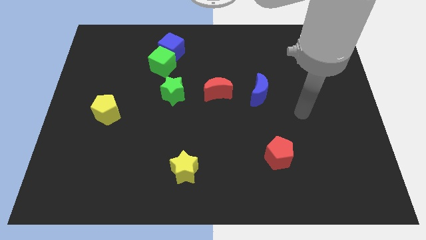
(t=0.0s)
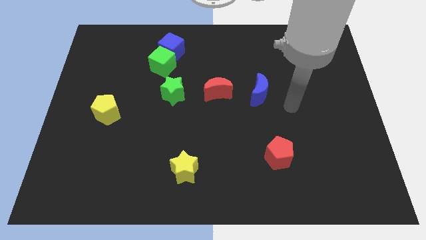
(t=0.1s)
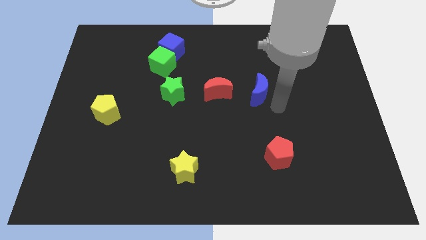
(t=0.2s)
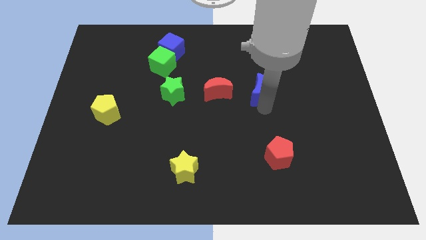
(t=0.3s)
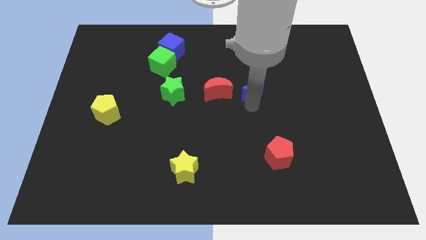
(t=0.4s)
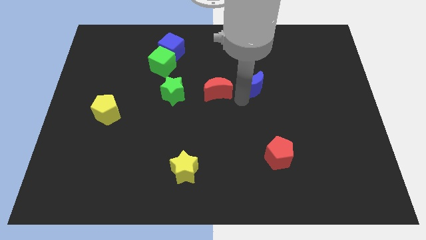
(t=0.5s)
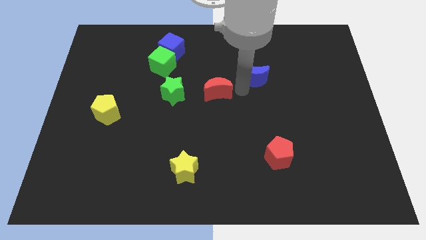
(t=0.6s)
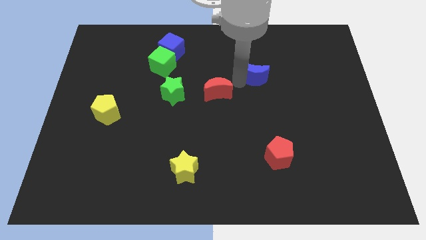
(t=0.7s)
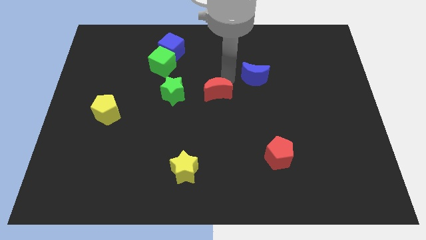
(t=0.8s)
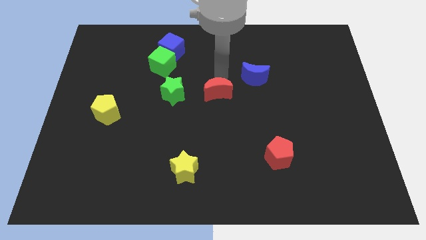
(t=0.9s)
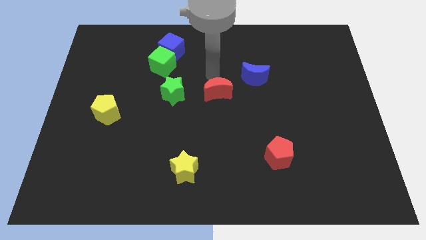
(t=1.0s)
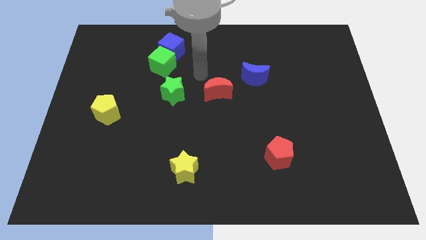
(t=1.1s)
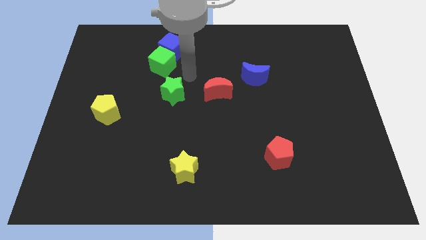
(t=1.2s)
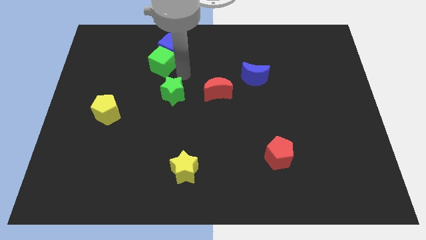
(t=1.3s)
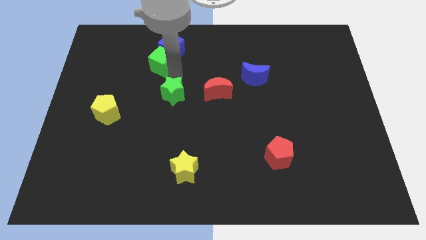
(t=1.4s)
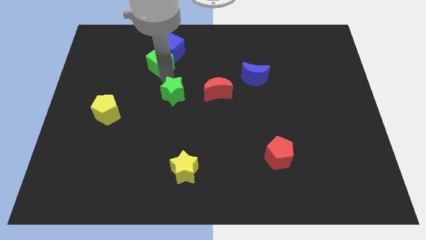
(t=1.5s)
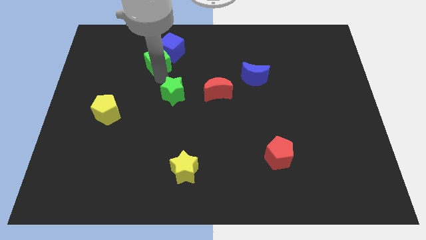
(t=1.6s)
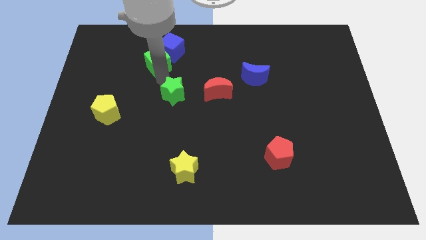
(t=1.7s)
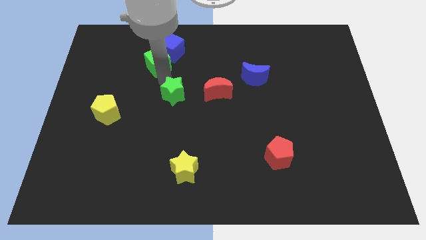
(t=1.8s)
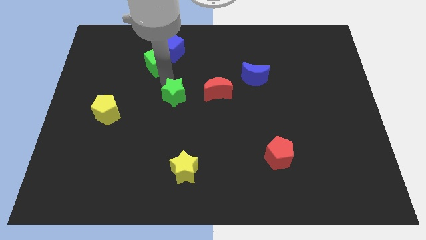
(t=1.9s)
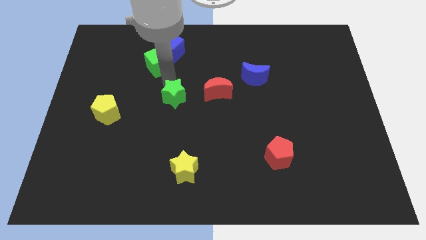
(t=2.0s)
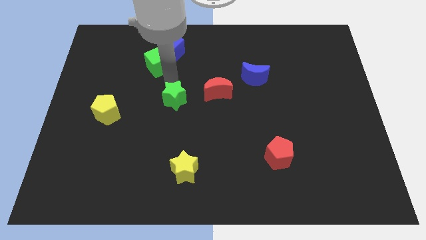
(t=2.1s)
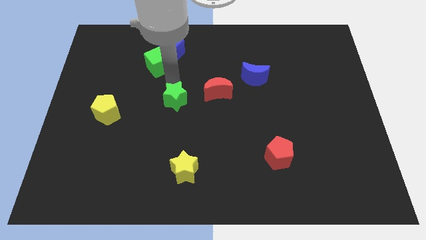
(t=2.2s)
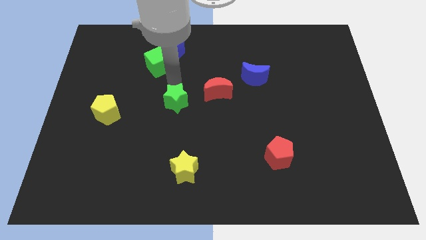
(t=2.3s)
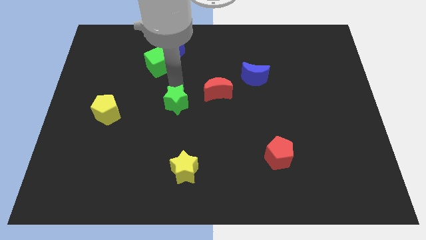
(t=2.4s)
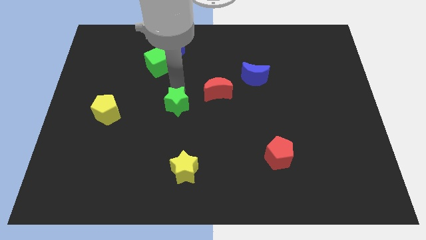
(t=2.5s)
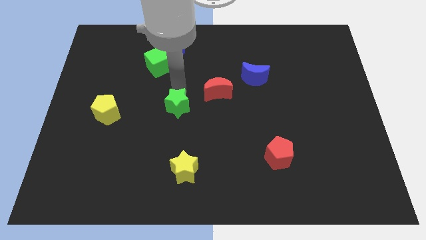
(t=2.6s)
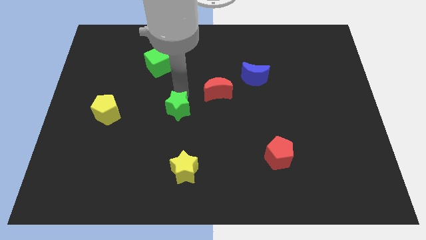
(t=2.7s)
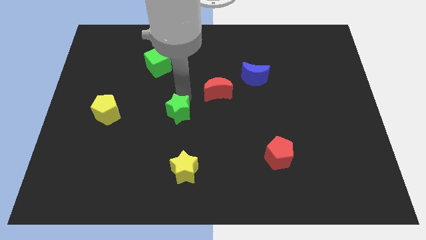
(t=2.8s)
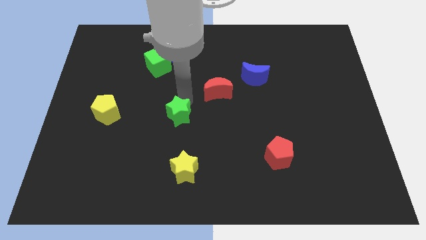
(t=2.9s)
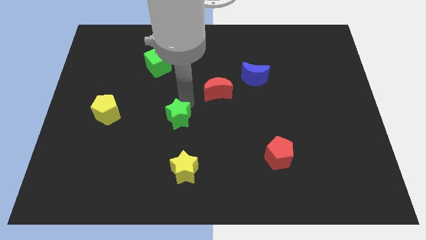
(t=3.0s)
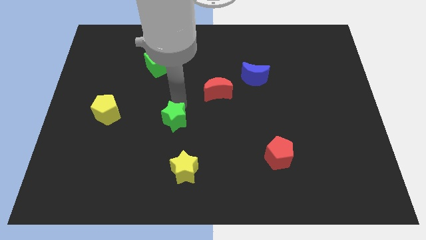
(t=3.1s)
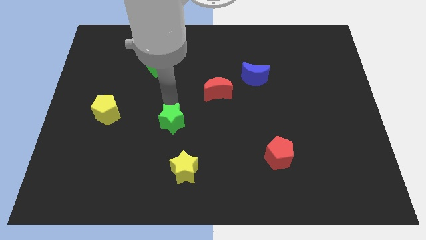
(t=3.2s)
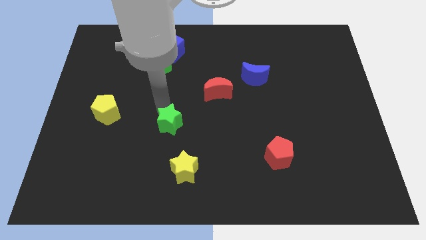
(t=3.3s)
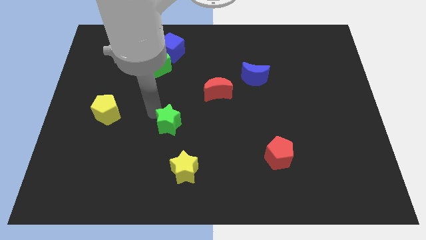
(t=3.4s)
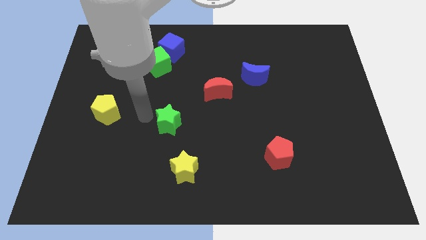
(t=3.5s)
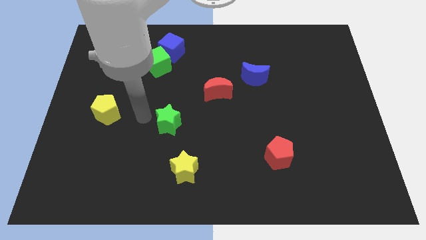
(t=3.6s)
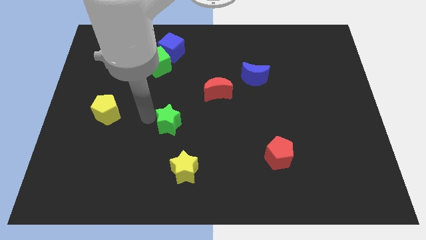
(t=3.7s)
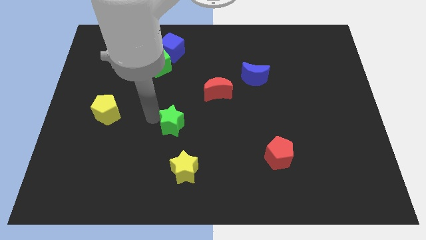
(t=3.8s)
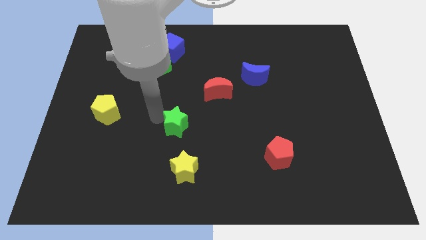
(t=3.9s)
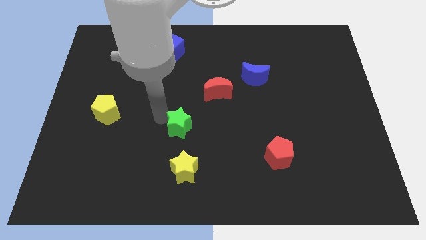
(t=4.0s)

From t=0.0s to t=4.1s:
slightly slide the green star downwards and right

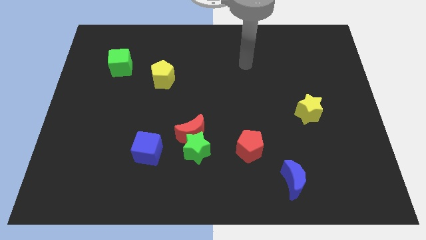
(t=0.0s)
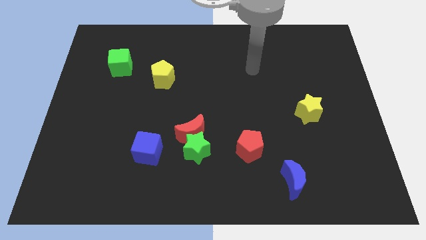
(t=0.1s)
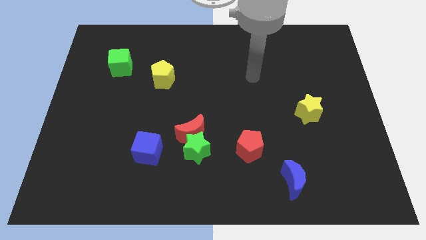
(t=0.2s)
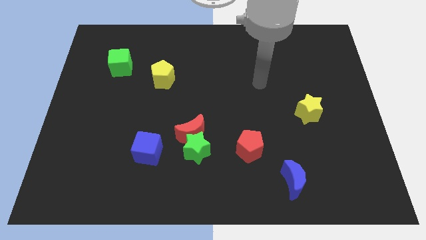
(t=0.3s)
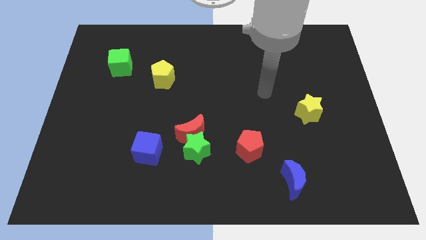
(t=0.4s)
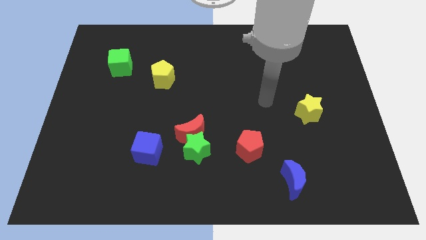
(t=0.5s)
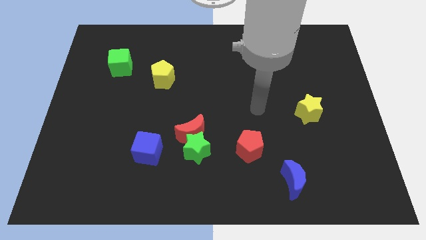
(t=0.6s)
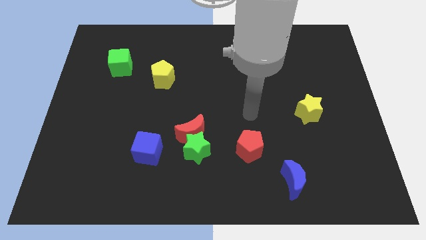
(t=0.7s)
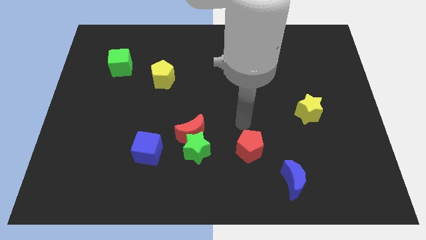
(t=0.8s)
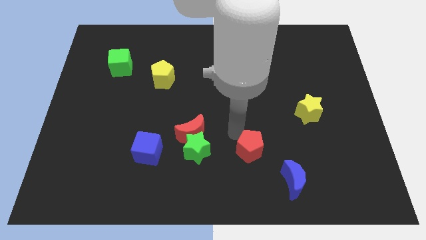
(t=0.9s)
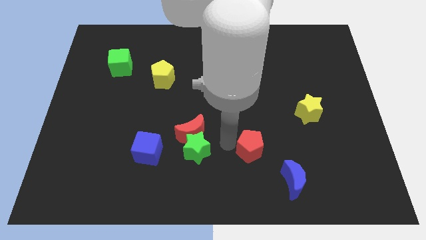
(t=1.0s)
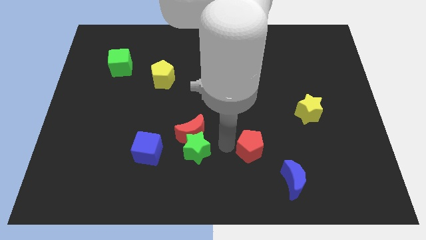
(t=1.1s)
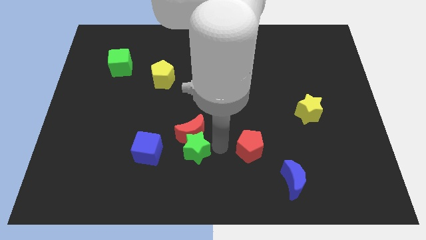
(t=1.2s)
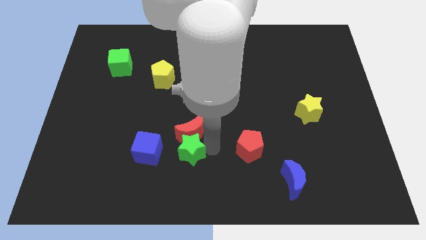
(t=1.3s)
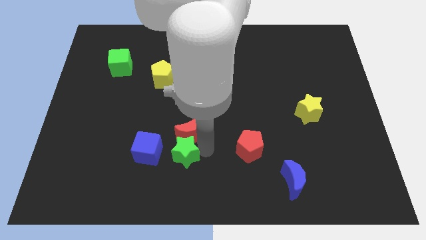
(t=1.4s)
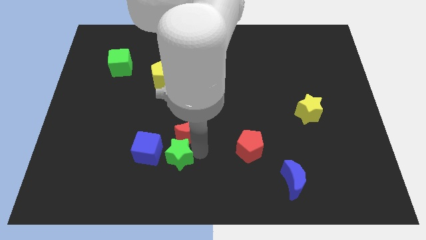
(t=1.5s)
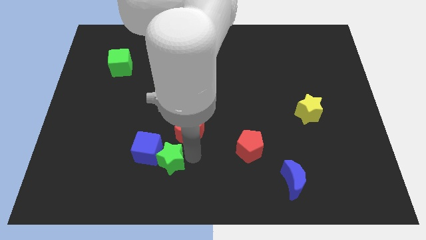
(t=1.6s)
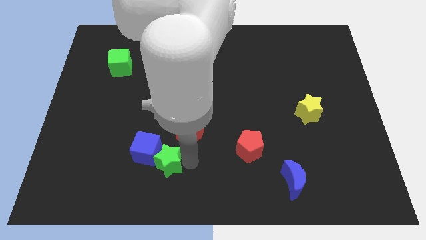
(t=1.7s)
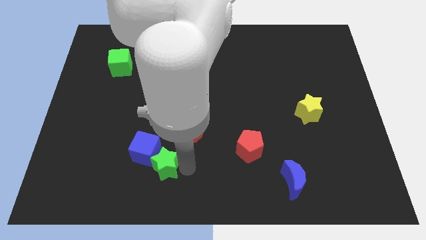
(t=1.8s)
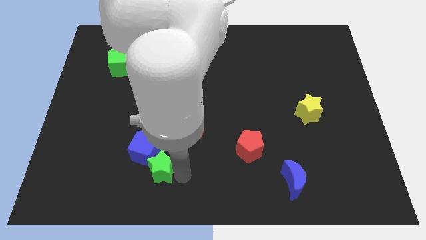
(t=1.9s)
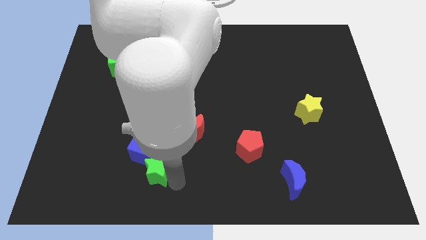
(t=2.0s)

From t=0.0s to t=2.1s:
slightly move the green star to the left

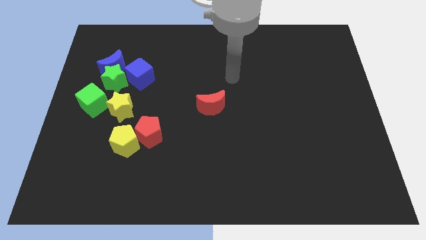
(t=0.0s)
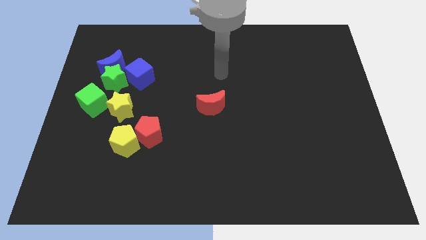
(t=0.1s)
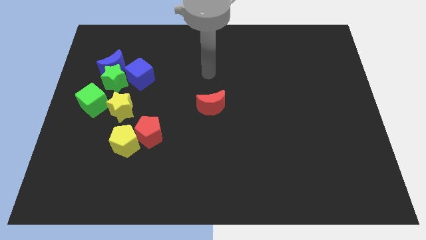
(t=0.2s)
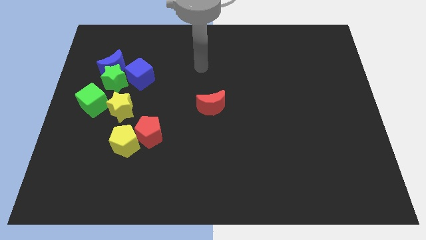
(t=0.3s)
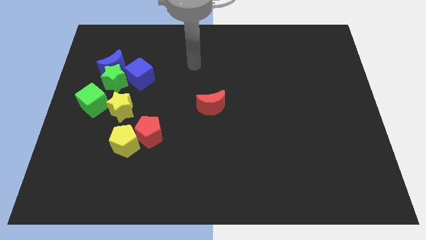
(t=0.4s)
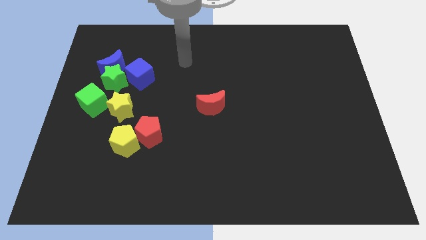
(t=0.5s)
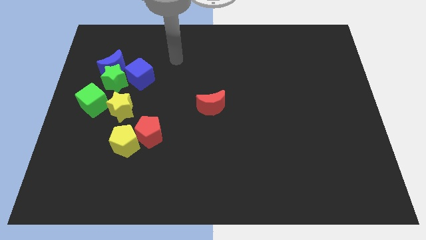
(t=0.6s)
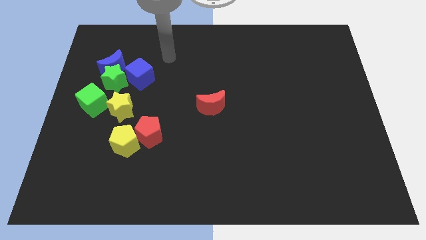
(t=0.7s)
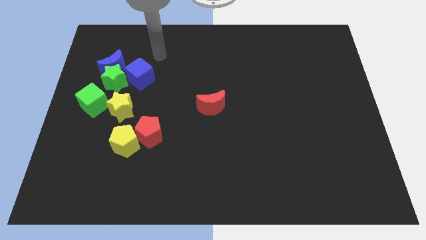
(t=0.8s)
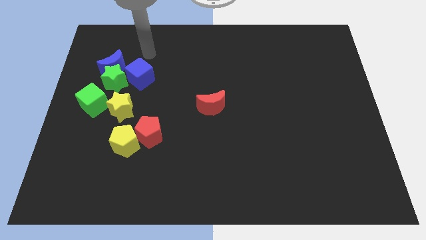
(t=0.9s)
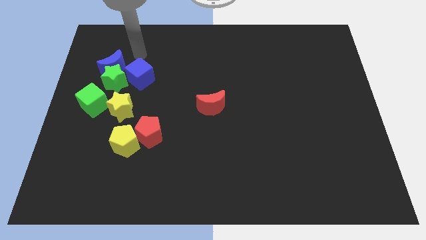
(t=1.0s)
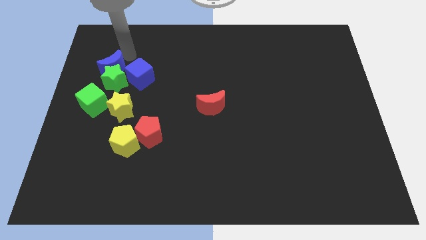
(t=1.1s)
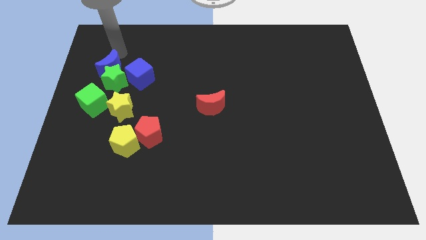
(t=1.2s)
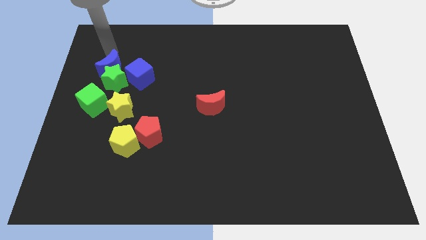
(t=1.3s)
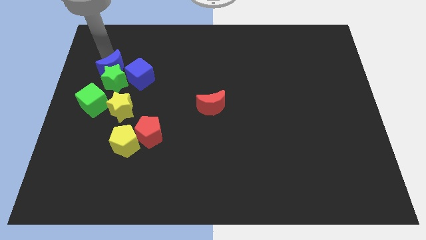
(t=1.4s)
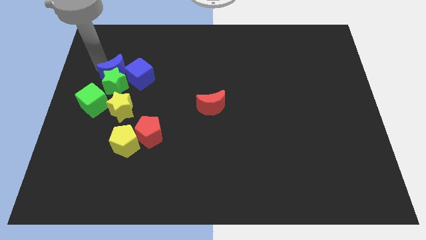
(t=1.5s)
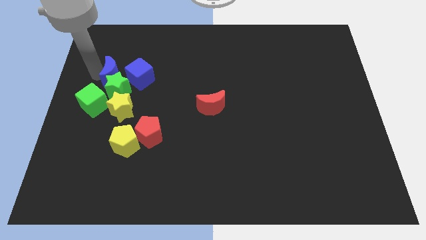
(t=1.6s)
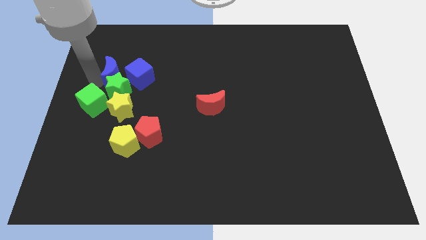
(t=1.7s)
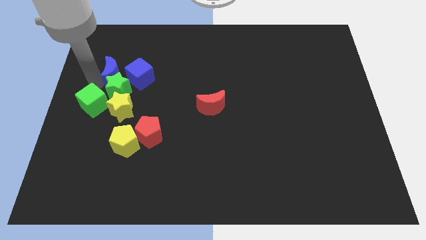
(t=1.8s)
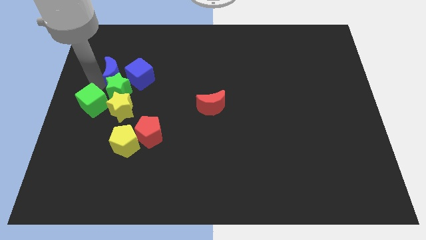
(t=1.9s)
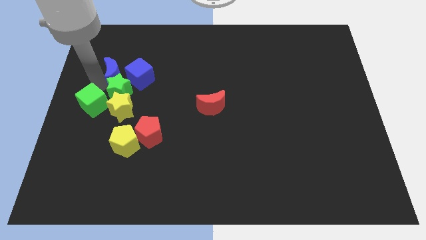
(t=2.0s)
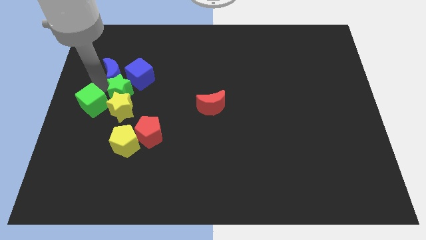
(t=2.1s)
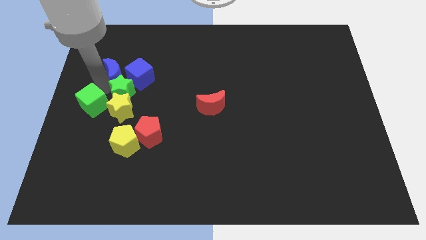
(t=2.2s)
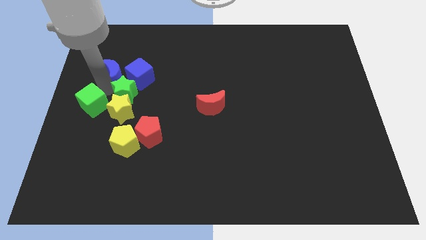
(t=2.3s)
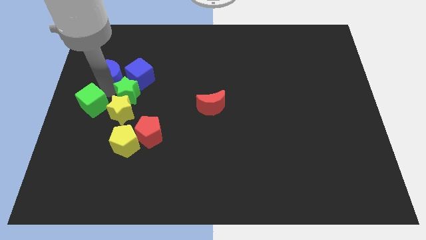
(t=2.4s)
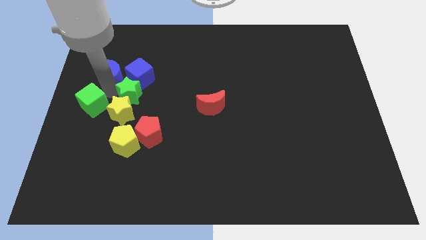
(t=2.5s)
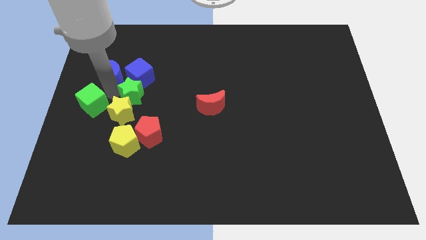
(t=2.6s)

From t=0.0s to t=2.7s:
slide the green star a bit diagonally down and to the right
